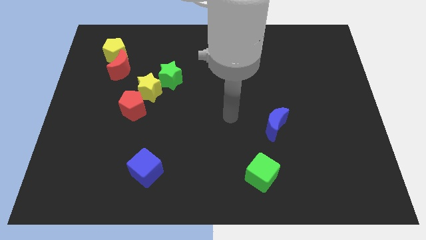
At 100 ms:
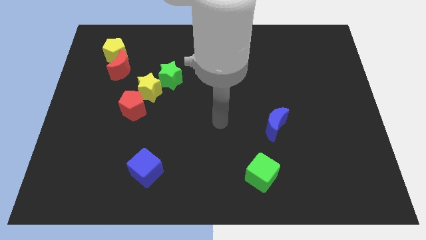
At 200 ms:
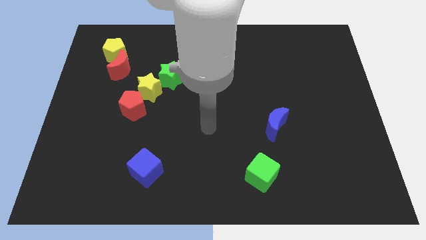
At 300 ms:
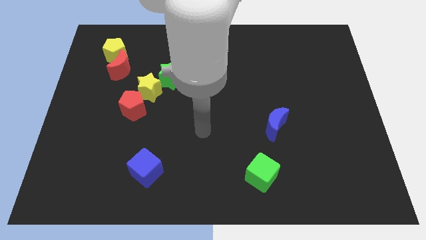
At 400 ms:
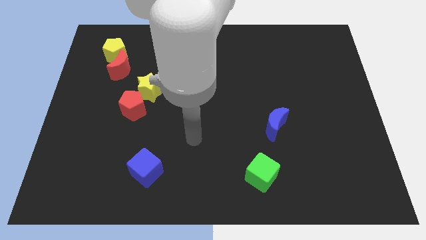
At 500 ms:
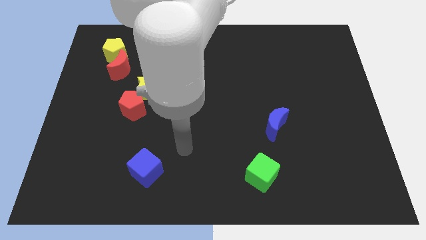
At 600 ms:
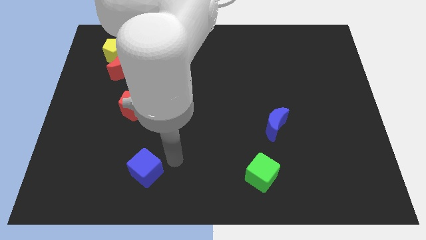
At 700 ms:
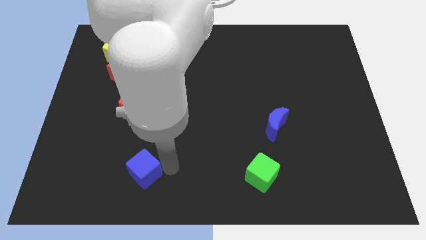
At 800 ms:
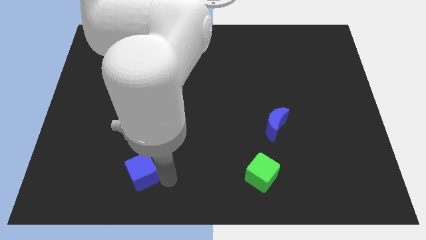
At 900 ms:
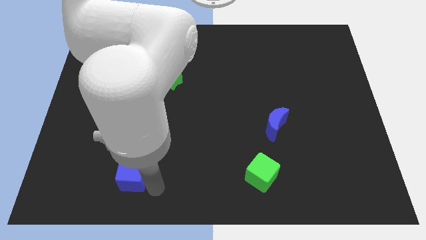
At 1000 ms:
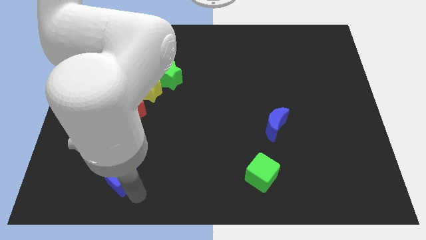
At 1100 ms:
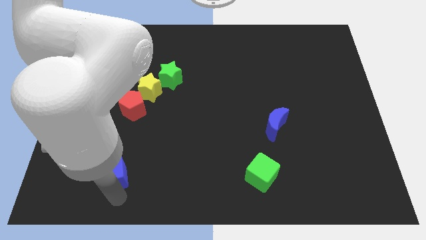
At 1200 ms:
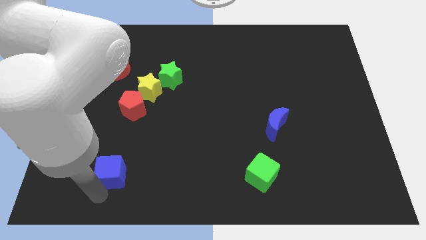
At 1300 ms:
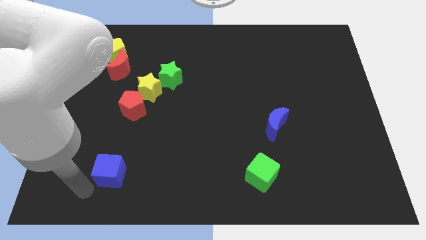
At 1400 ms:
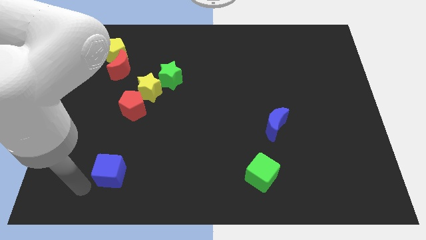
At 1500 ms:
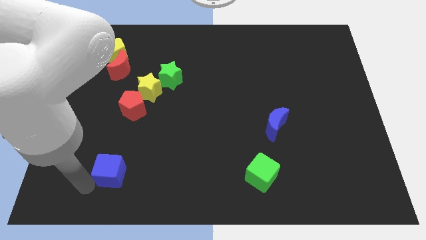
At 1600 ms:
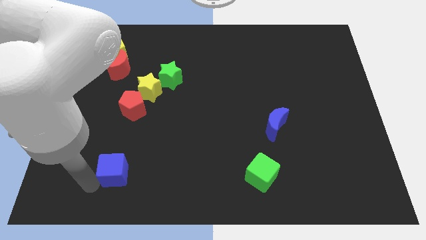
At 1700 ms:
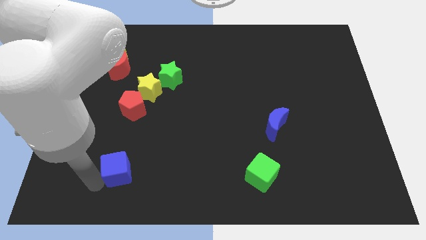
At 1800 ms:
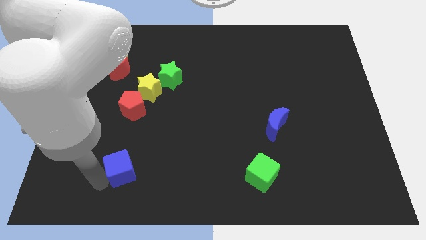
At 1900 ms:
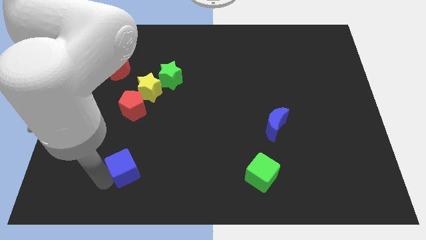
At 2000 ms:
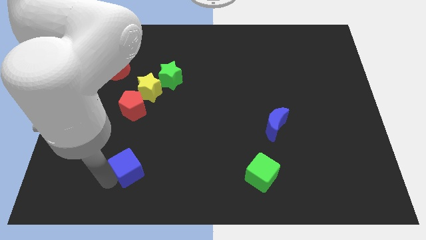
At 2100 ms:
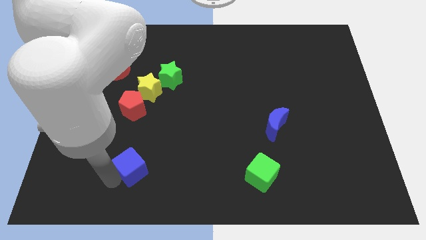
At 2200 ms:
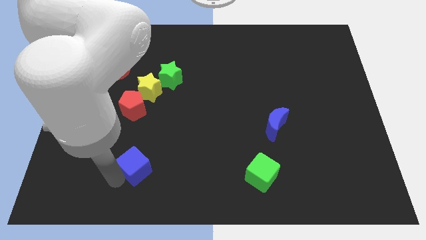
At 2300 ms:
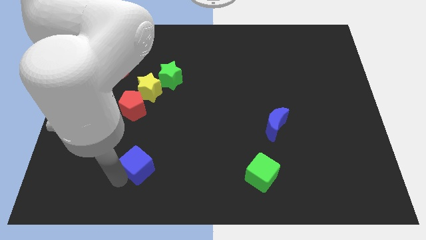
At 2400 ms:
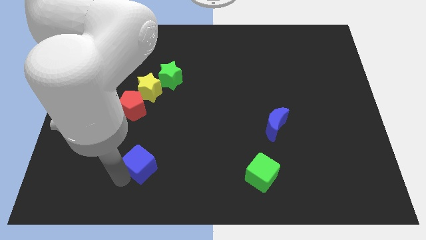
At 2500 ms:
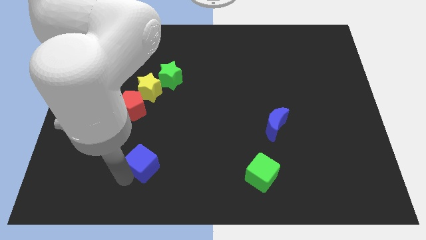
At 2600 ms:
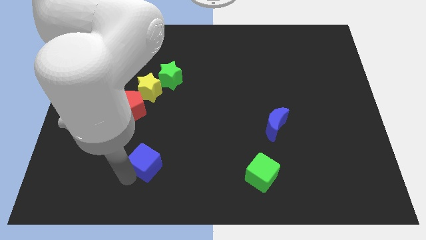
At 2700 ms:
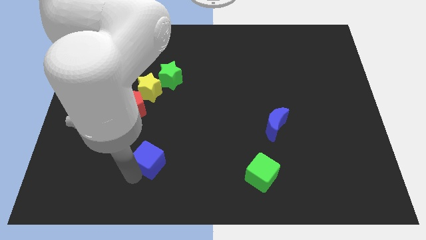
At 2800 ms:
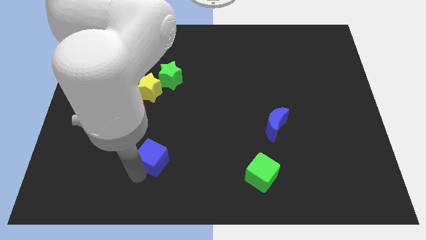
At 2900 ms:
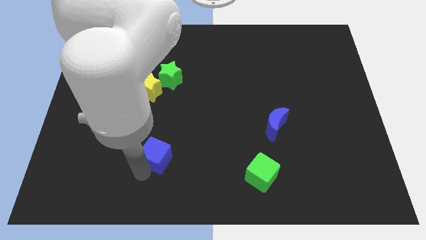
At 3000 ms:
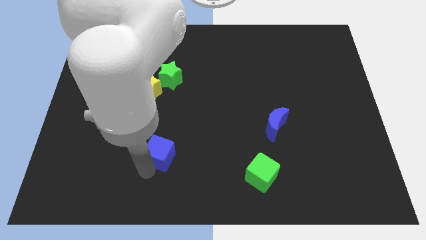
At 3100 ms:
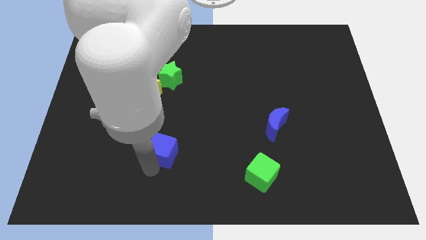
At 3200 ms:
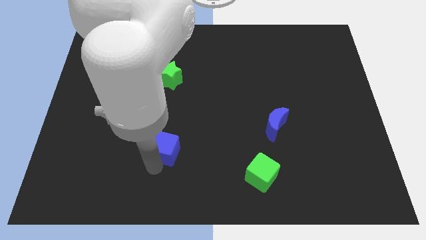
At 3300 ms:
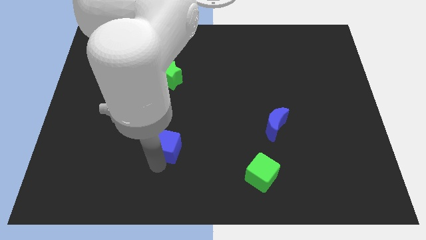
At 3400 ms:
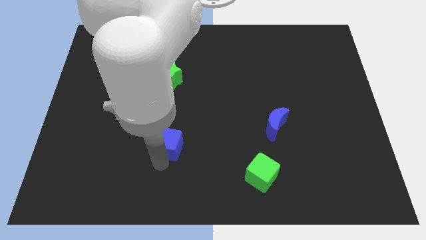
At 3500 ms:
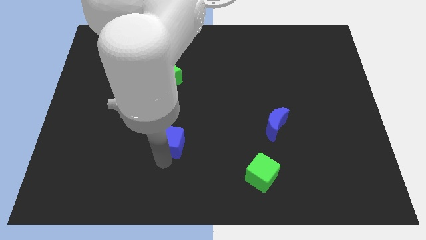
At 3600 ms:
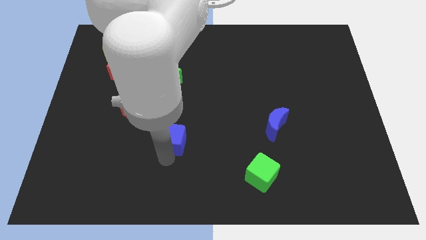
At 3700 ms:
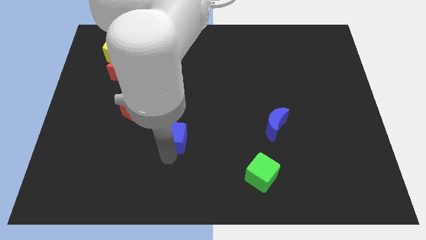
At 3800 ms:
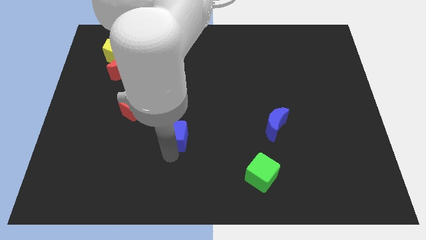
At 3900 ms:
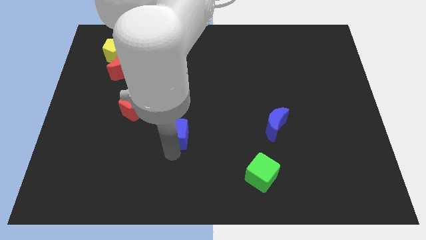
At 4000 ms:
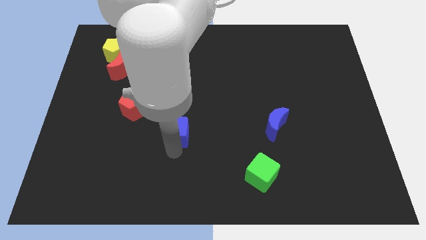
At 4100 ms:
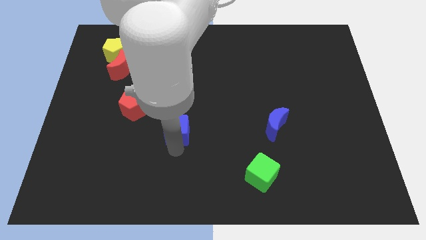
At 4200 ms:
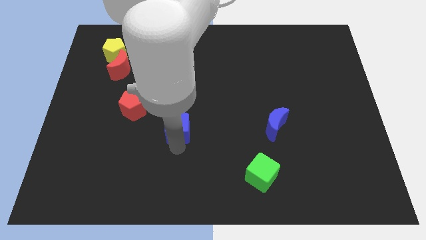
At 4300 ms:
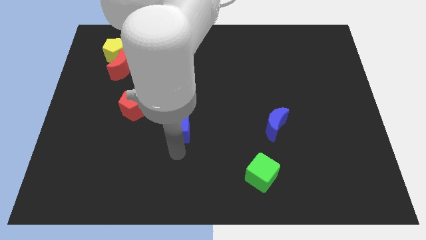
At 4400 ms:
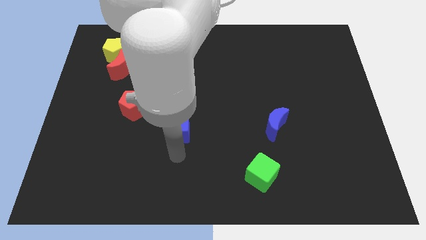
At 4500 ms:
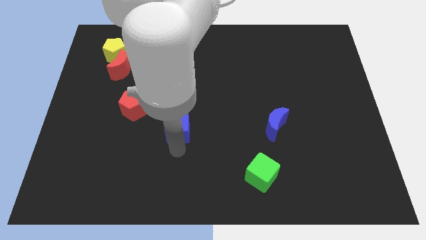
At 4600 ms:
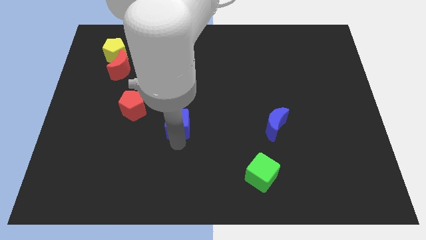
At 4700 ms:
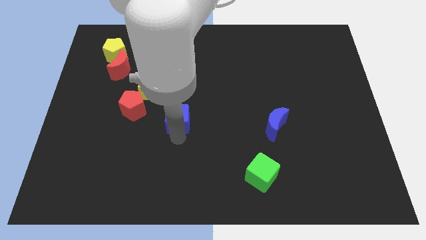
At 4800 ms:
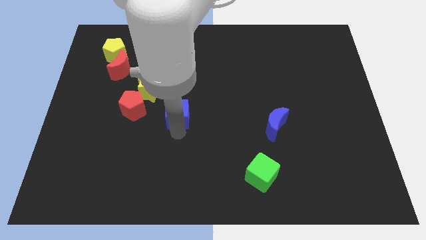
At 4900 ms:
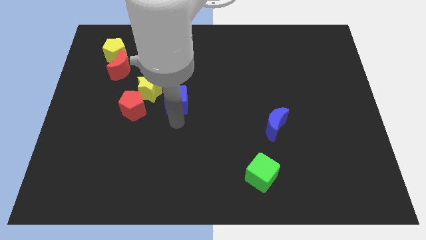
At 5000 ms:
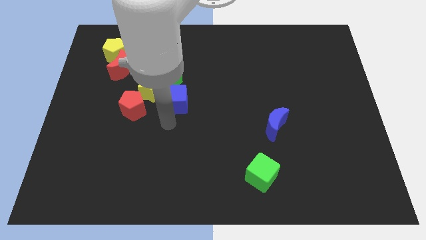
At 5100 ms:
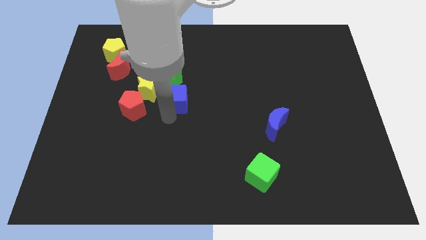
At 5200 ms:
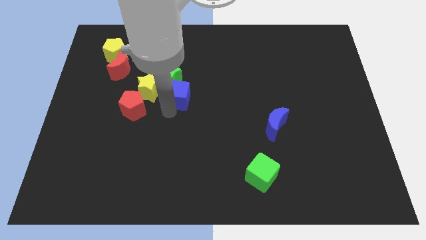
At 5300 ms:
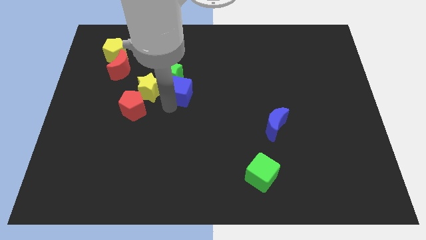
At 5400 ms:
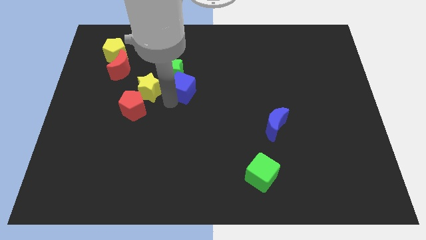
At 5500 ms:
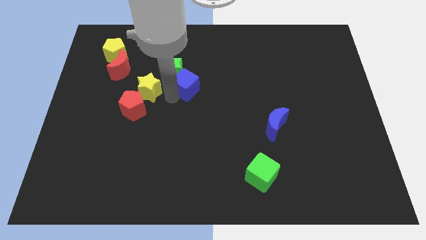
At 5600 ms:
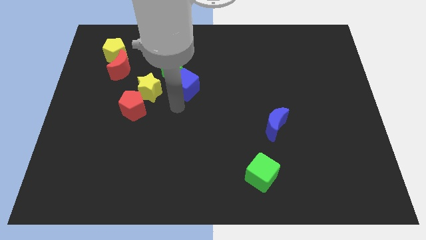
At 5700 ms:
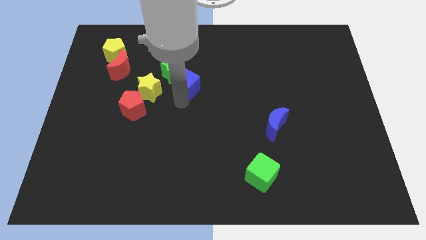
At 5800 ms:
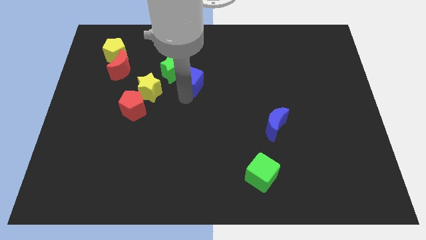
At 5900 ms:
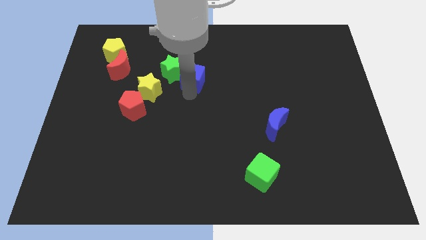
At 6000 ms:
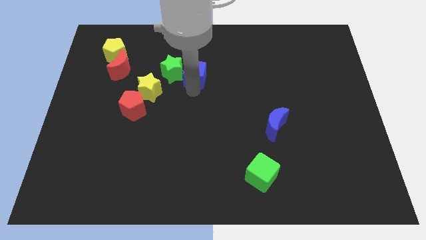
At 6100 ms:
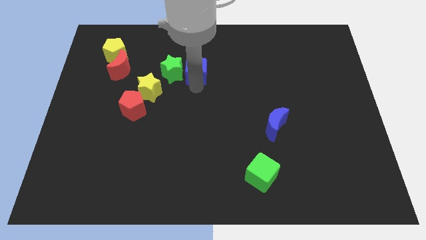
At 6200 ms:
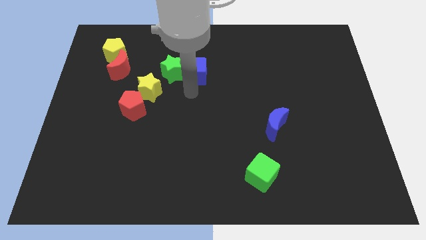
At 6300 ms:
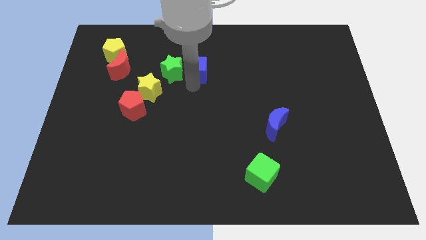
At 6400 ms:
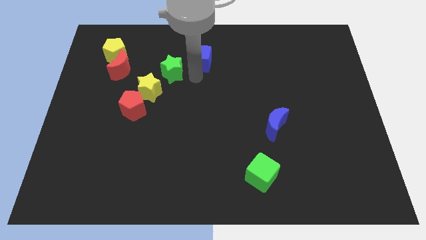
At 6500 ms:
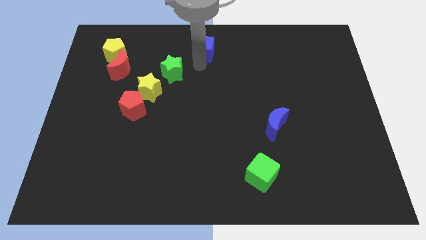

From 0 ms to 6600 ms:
slide the blue cube to the top
